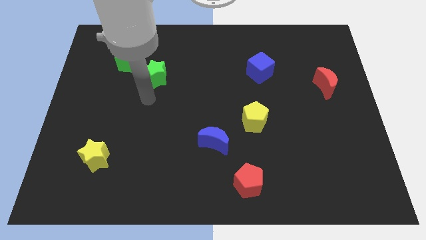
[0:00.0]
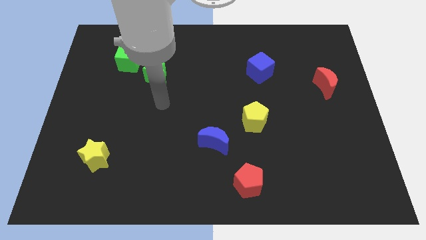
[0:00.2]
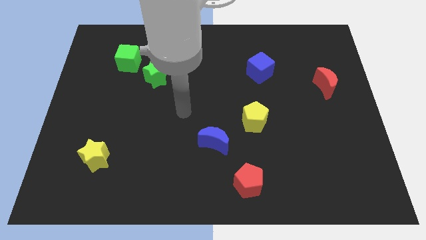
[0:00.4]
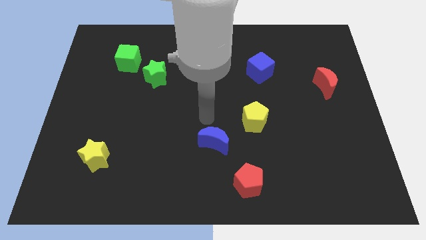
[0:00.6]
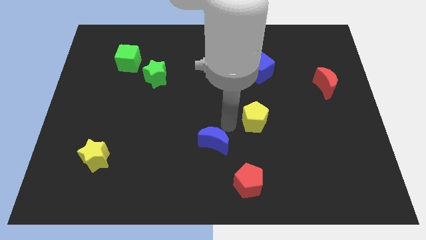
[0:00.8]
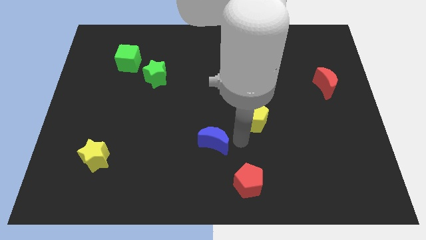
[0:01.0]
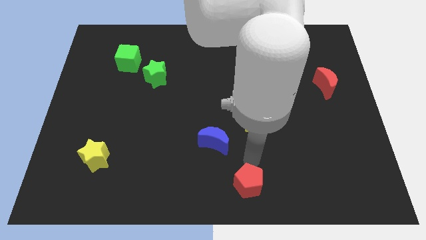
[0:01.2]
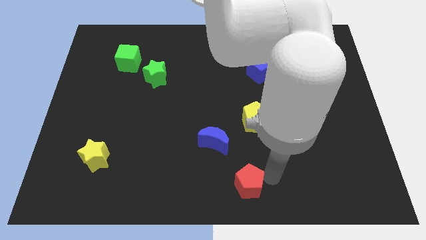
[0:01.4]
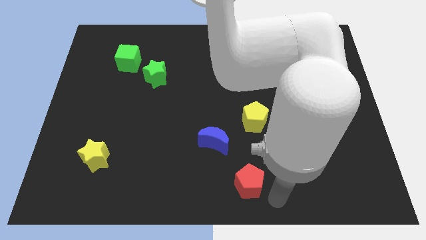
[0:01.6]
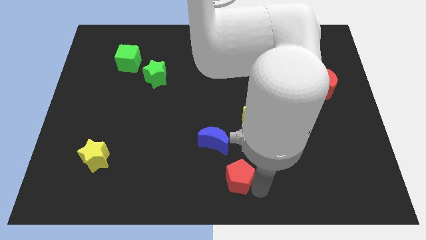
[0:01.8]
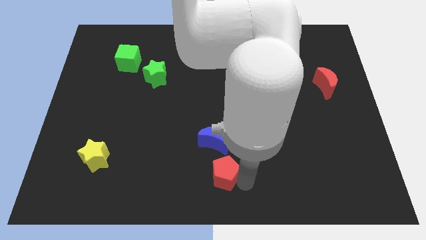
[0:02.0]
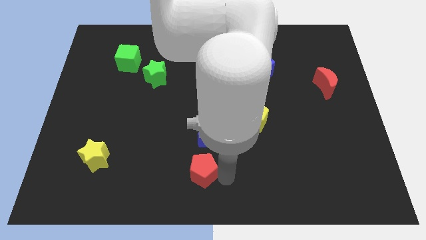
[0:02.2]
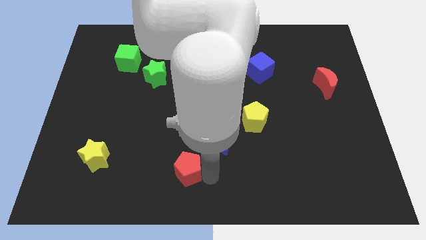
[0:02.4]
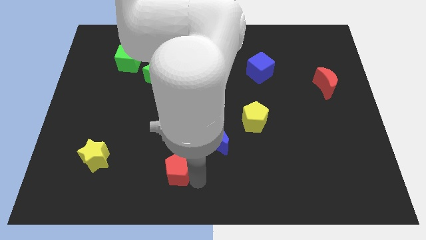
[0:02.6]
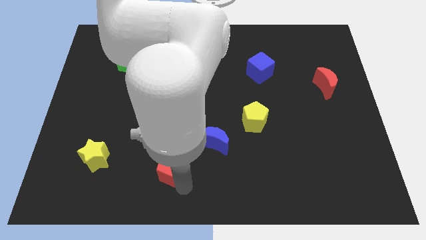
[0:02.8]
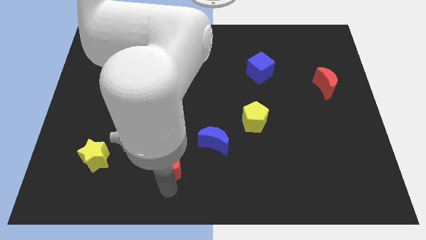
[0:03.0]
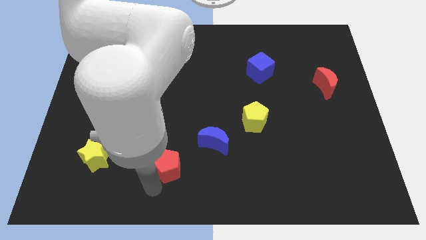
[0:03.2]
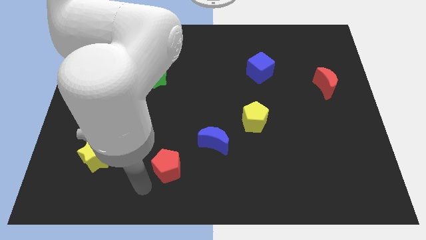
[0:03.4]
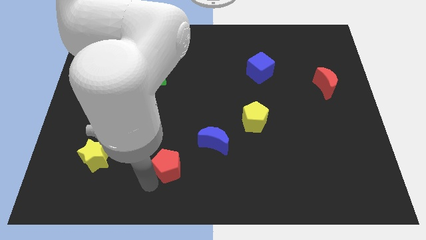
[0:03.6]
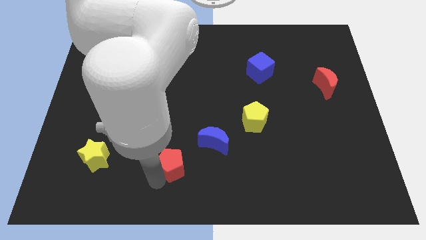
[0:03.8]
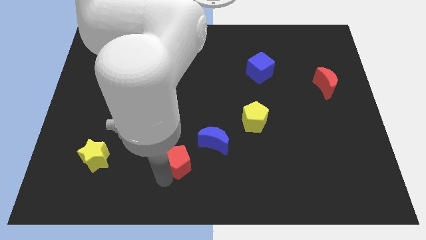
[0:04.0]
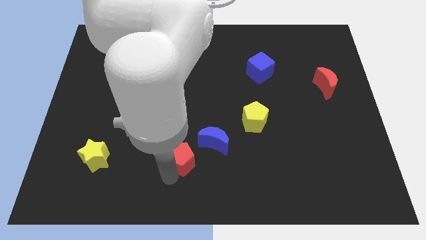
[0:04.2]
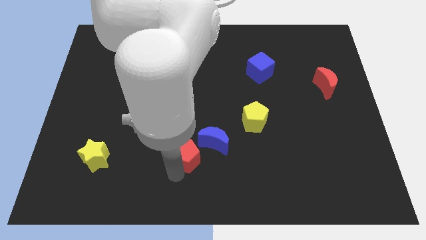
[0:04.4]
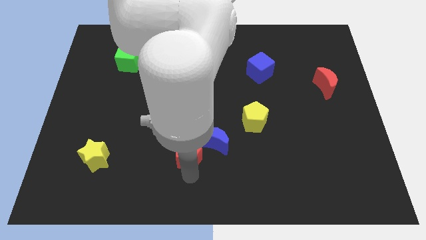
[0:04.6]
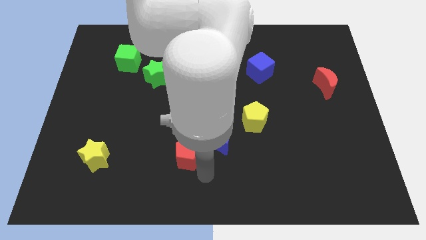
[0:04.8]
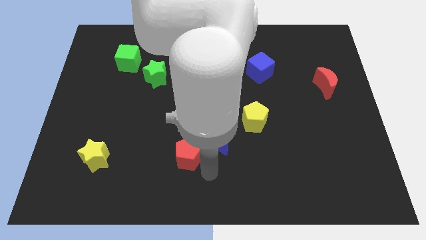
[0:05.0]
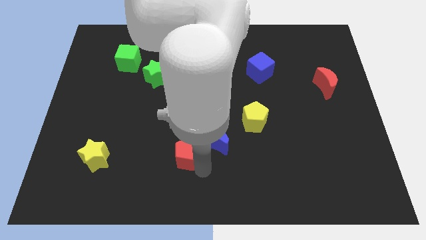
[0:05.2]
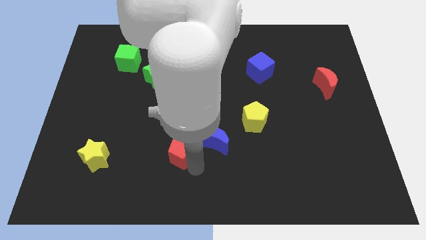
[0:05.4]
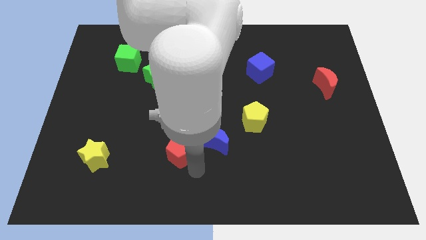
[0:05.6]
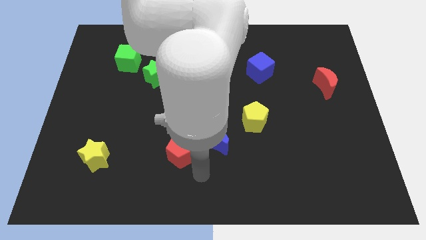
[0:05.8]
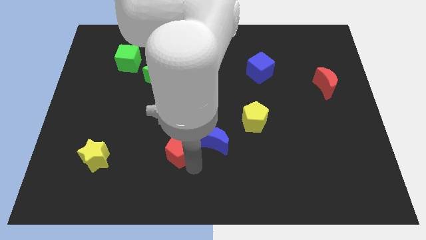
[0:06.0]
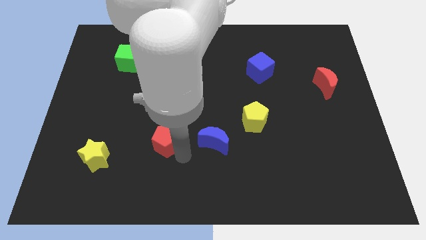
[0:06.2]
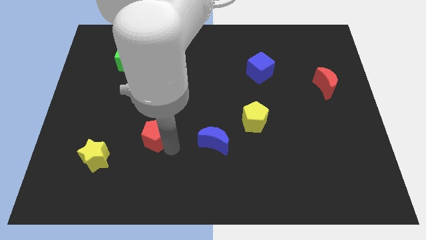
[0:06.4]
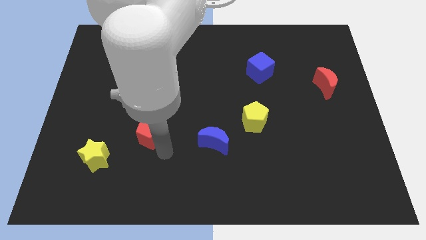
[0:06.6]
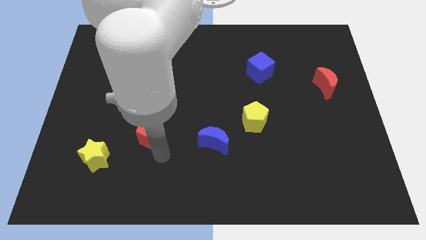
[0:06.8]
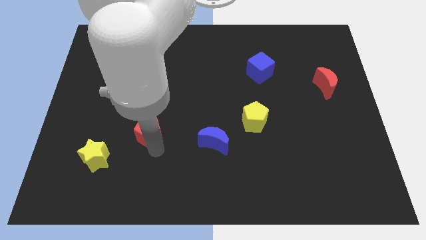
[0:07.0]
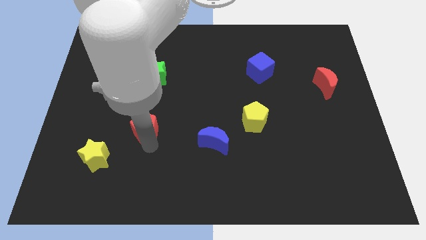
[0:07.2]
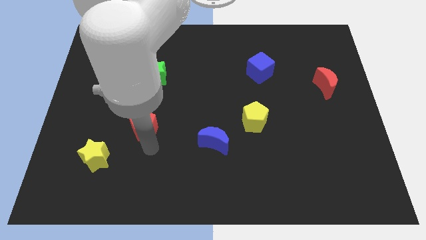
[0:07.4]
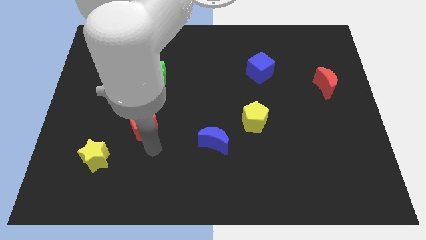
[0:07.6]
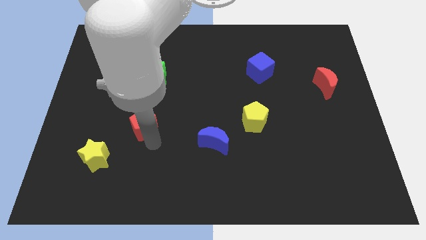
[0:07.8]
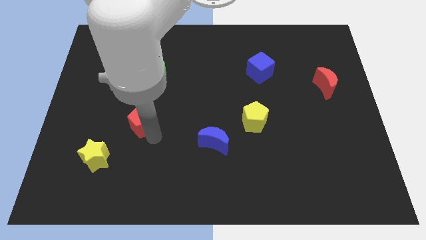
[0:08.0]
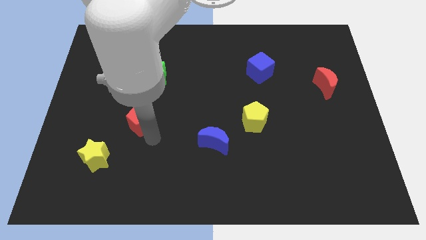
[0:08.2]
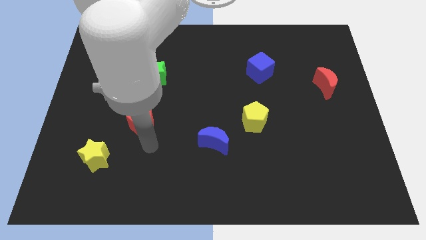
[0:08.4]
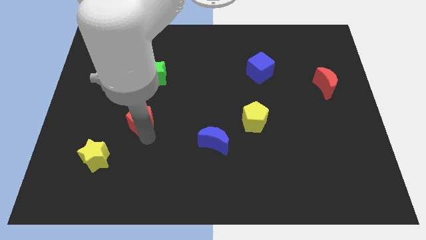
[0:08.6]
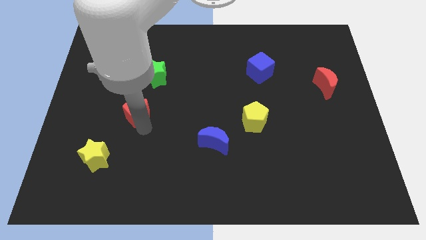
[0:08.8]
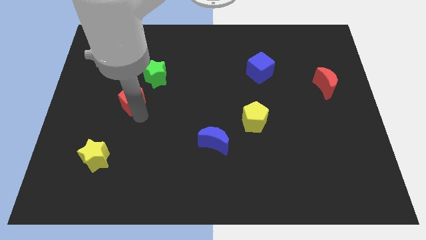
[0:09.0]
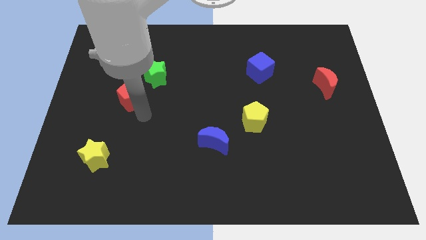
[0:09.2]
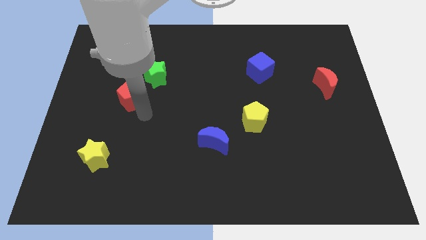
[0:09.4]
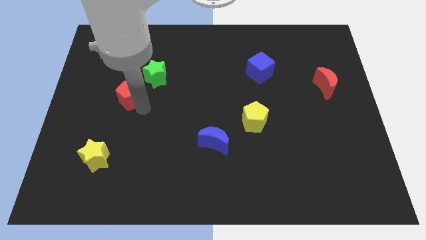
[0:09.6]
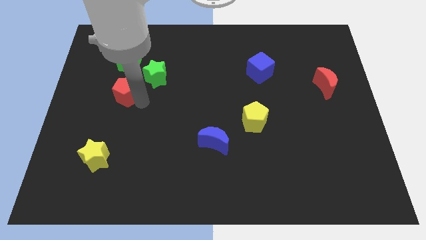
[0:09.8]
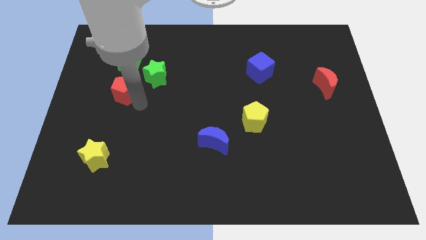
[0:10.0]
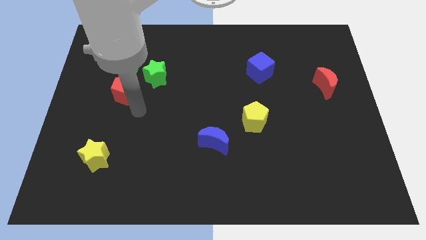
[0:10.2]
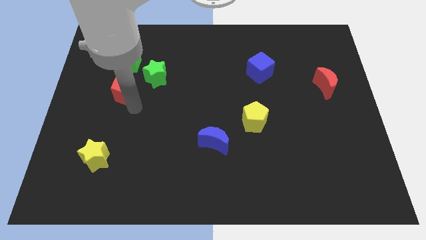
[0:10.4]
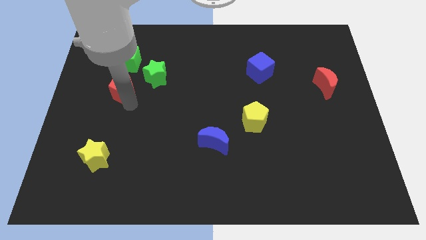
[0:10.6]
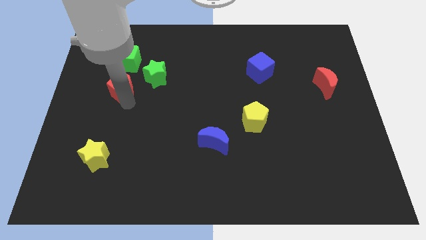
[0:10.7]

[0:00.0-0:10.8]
put the red pentagon just left of the green star

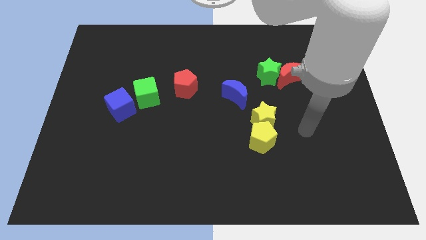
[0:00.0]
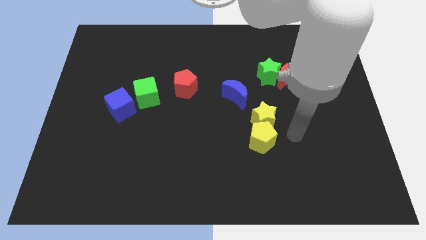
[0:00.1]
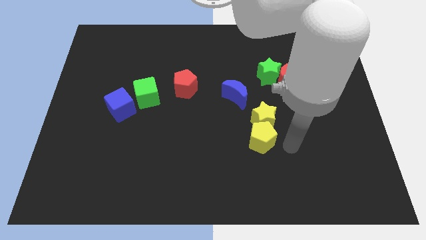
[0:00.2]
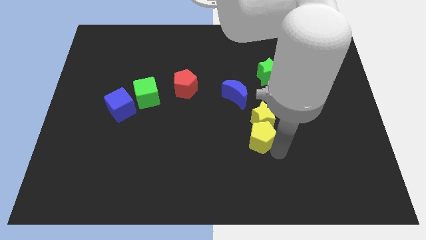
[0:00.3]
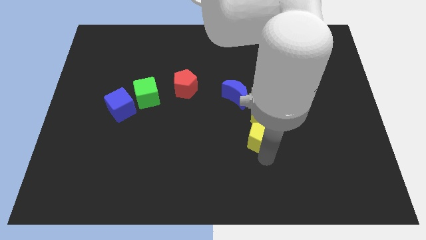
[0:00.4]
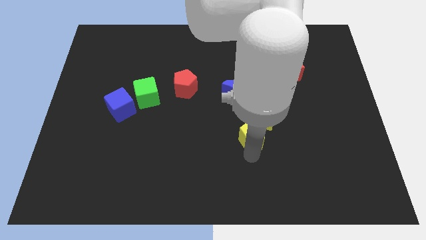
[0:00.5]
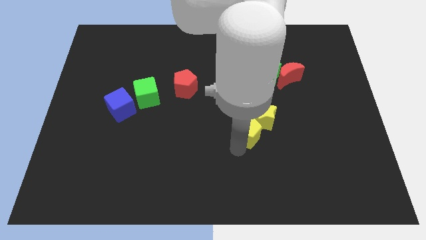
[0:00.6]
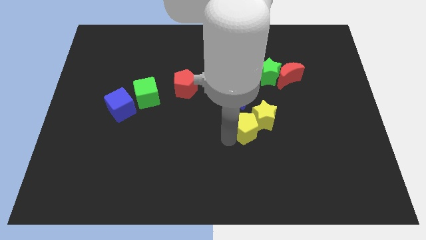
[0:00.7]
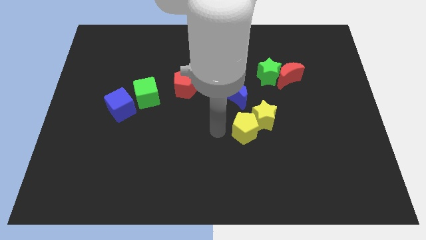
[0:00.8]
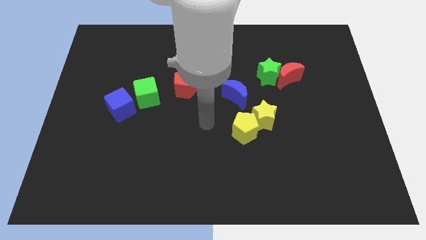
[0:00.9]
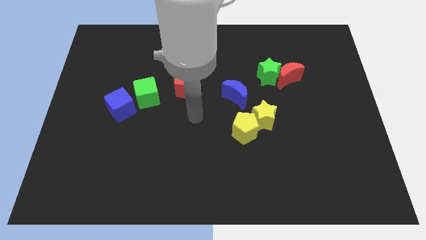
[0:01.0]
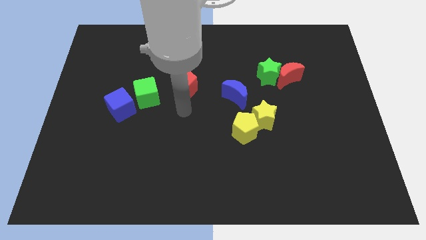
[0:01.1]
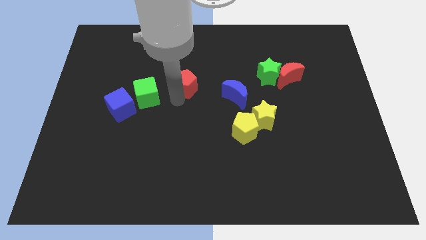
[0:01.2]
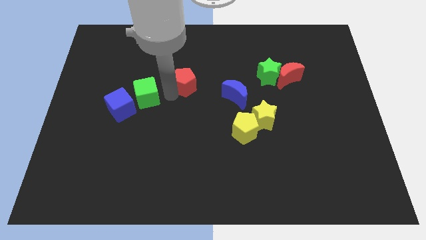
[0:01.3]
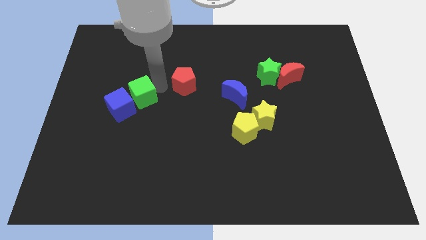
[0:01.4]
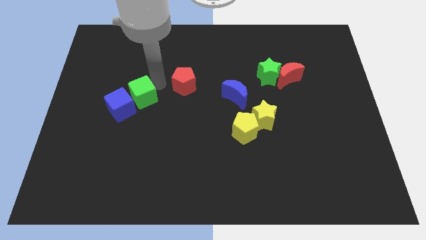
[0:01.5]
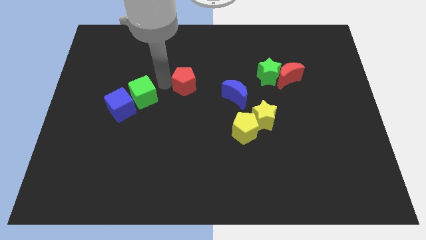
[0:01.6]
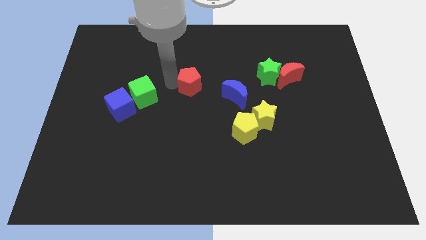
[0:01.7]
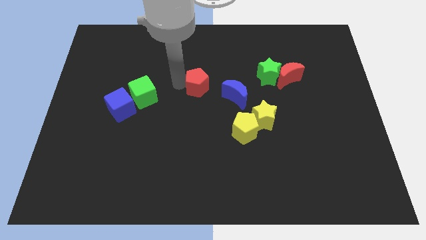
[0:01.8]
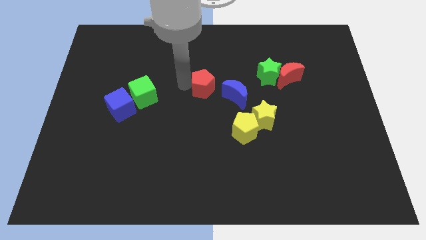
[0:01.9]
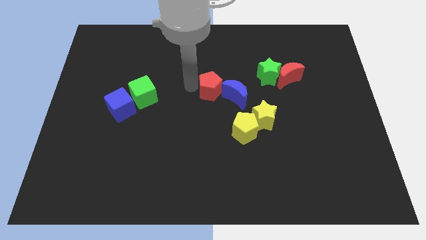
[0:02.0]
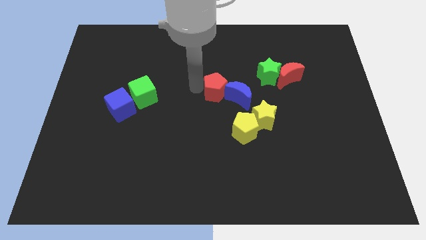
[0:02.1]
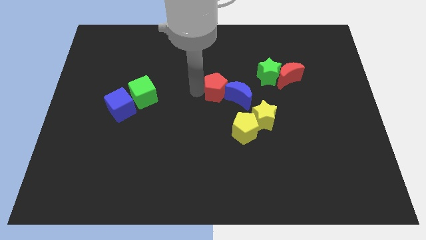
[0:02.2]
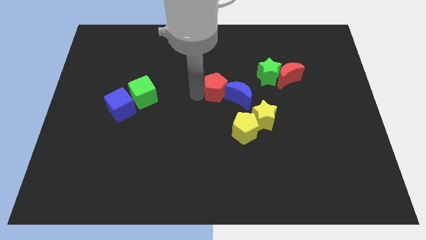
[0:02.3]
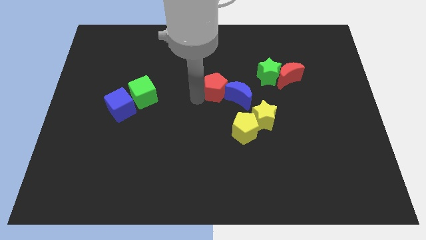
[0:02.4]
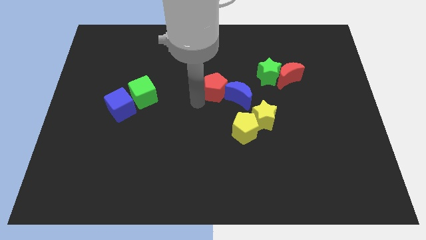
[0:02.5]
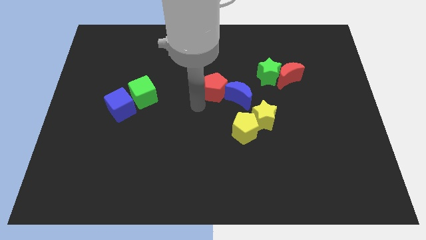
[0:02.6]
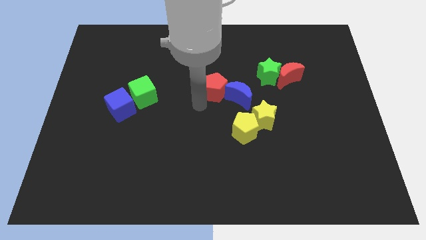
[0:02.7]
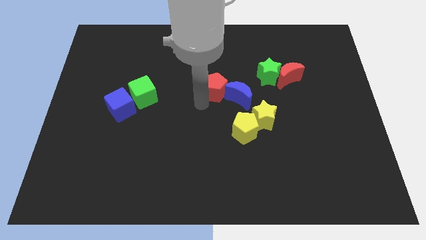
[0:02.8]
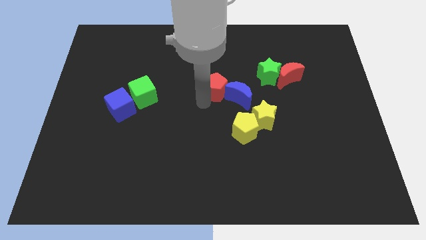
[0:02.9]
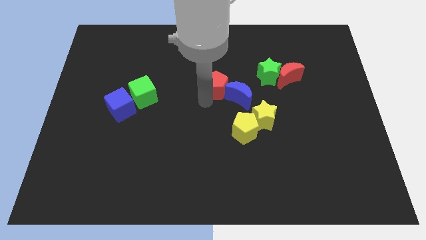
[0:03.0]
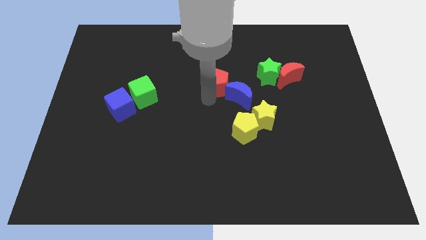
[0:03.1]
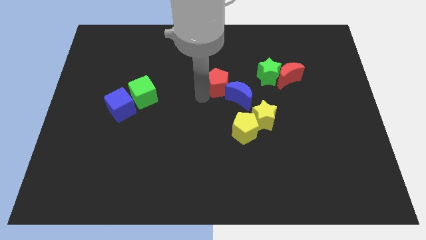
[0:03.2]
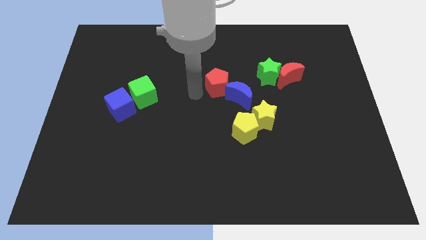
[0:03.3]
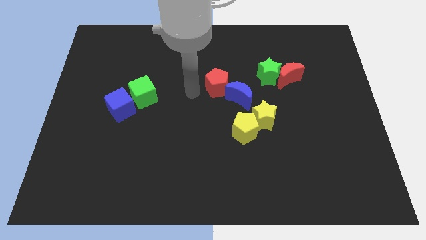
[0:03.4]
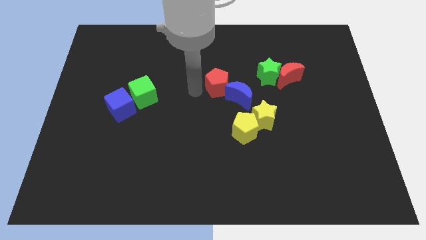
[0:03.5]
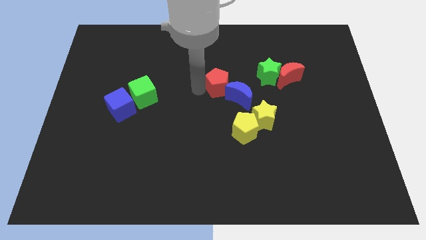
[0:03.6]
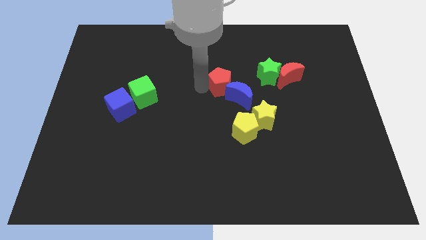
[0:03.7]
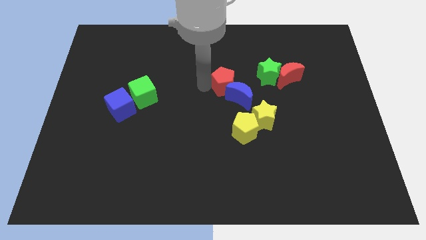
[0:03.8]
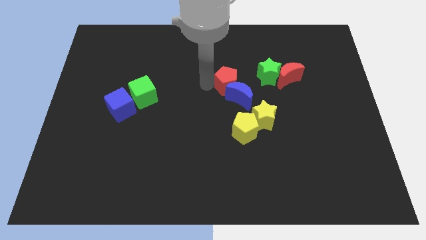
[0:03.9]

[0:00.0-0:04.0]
push the red pentagon to the left of the red moon
